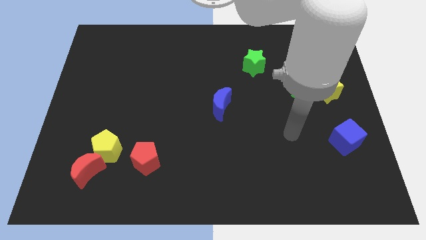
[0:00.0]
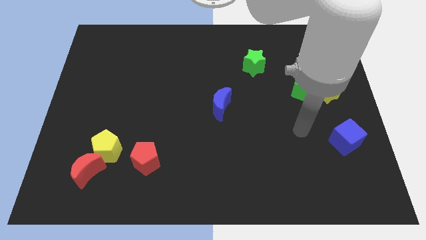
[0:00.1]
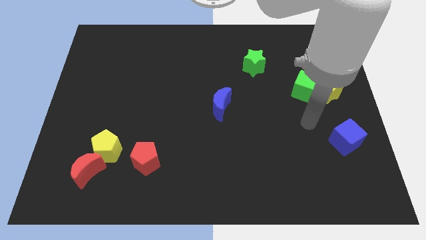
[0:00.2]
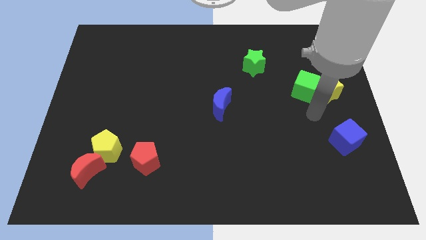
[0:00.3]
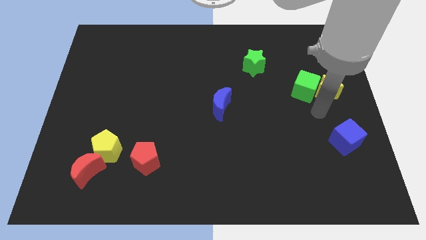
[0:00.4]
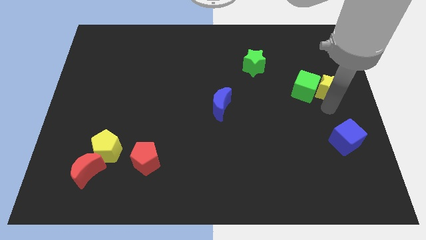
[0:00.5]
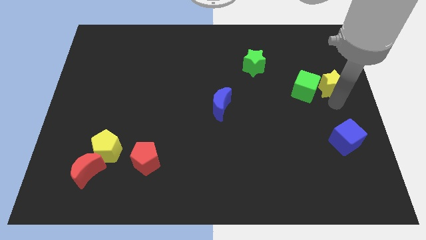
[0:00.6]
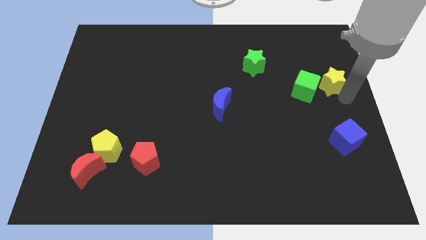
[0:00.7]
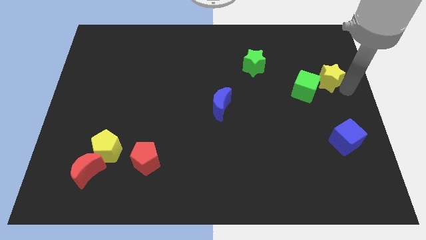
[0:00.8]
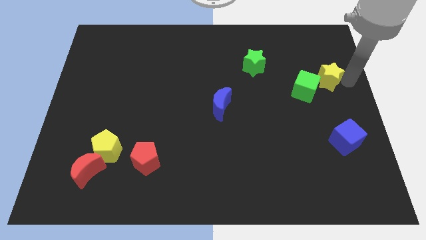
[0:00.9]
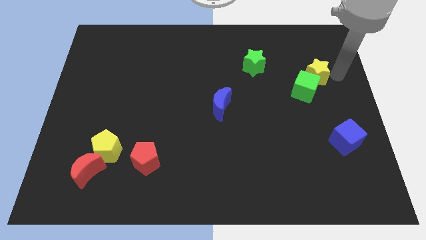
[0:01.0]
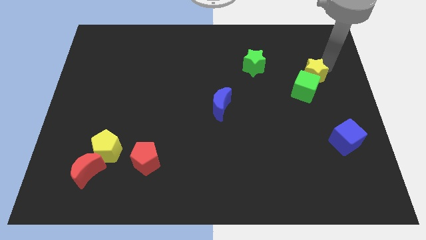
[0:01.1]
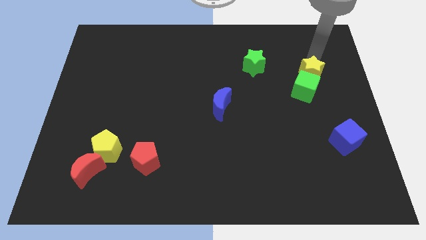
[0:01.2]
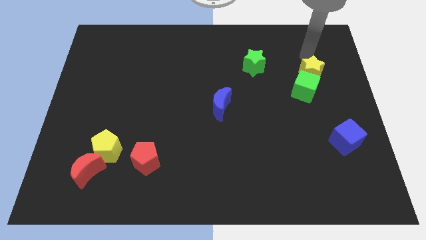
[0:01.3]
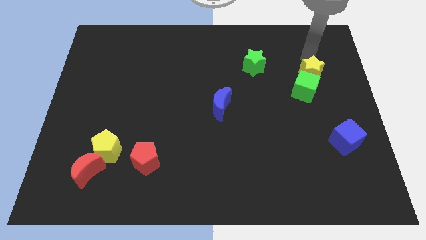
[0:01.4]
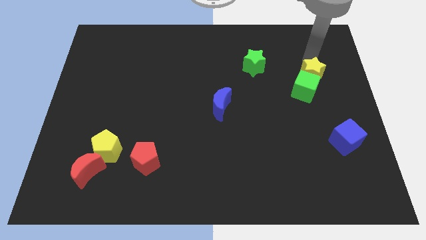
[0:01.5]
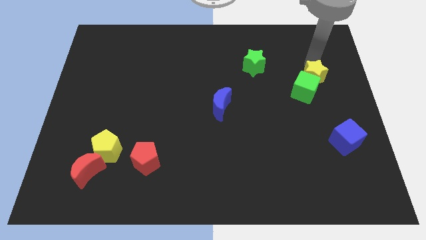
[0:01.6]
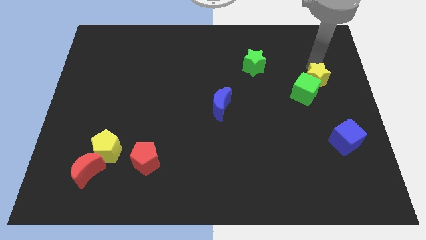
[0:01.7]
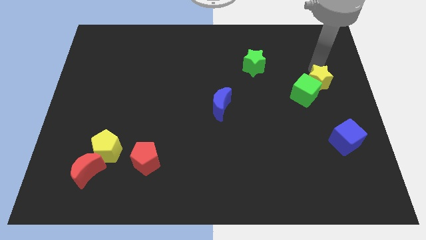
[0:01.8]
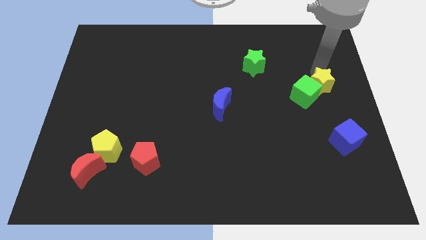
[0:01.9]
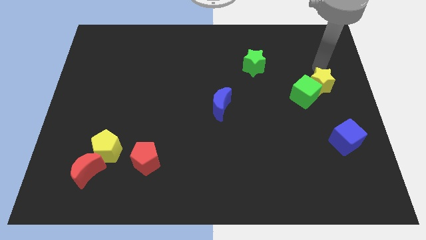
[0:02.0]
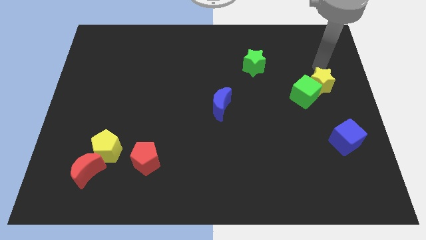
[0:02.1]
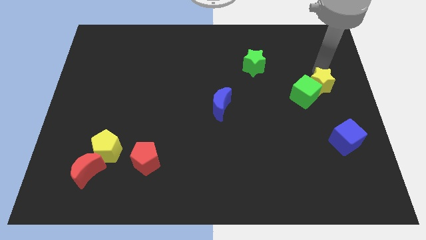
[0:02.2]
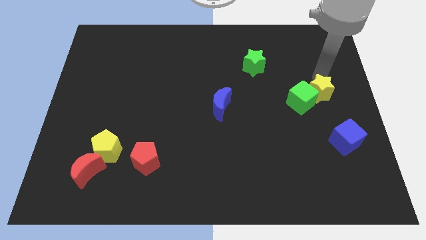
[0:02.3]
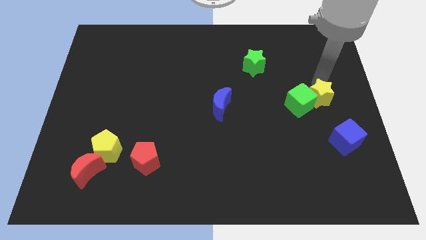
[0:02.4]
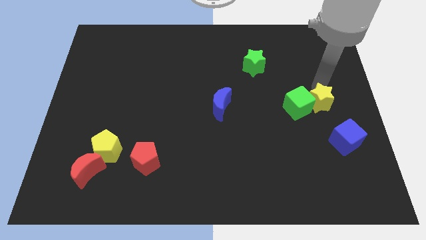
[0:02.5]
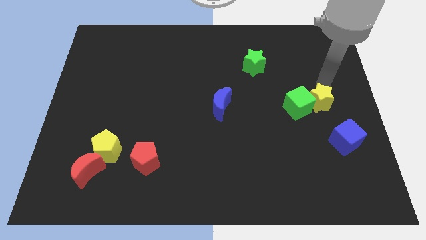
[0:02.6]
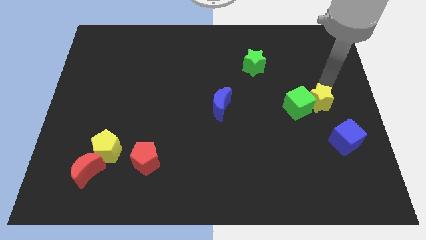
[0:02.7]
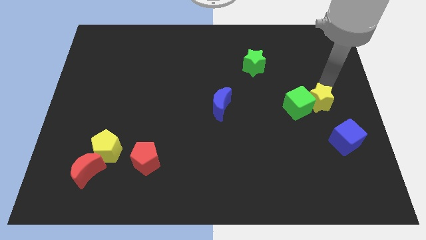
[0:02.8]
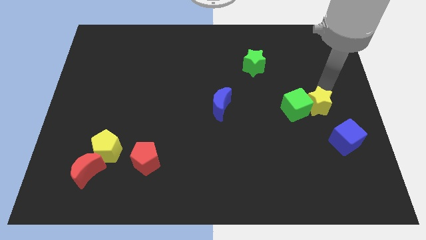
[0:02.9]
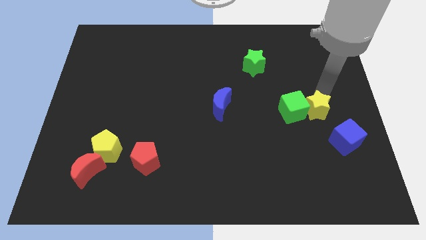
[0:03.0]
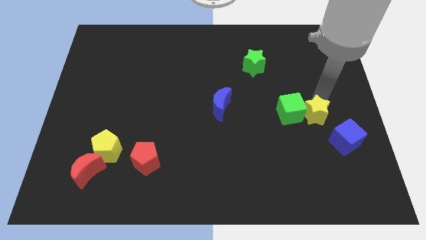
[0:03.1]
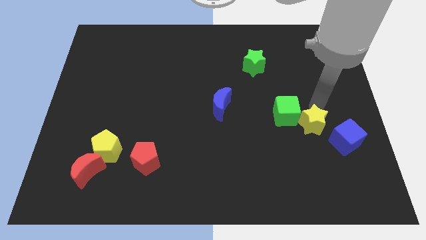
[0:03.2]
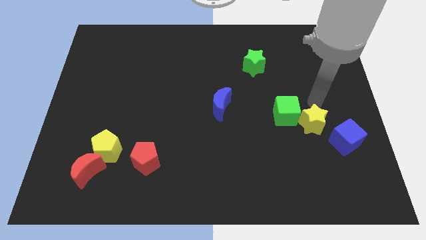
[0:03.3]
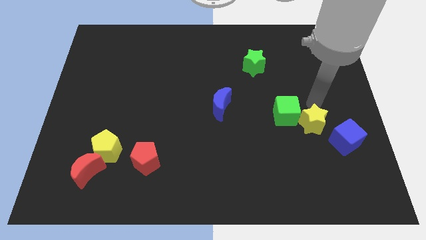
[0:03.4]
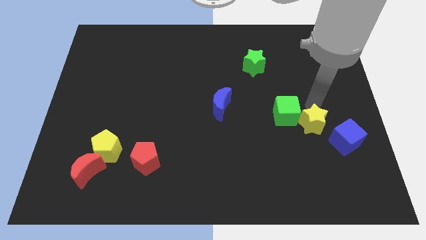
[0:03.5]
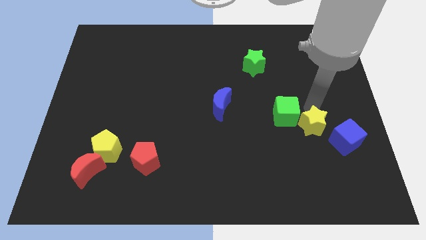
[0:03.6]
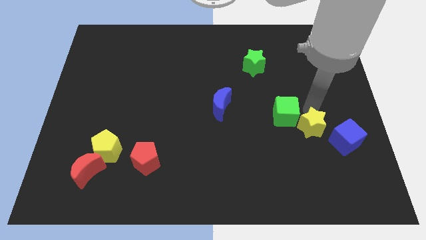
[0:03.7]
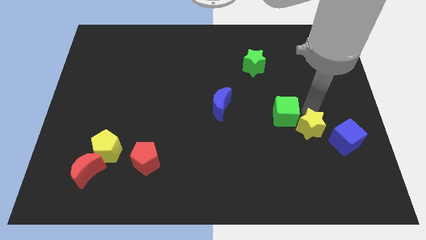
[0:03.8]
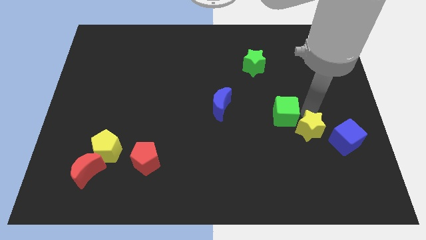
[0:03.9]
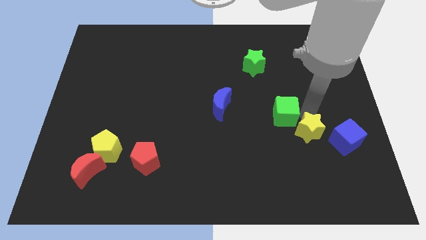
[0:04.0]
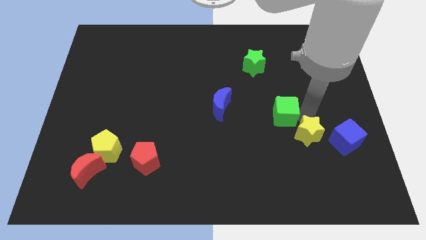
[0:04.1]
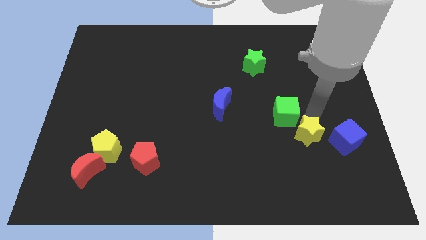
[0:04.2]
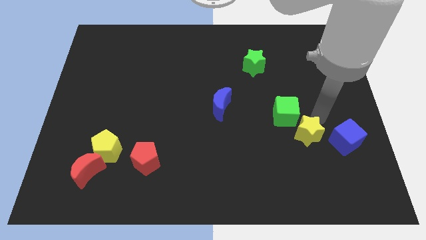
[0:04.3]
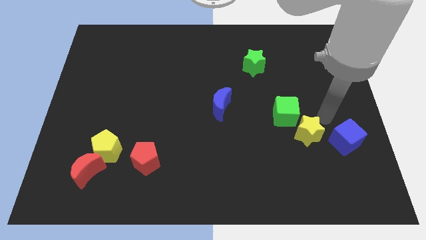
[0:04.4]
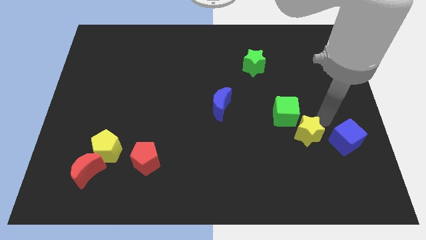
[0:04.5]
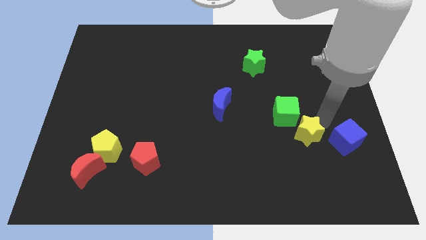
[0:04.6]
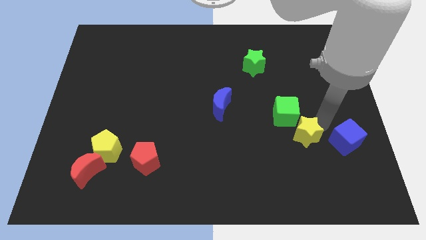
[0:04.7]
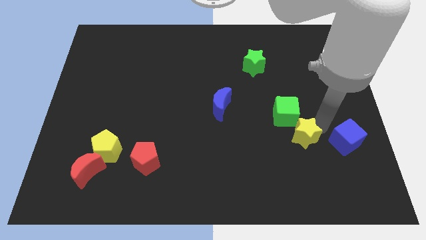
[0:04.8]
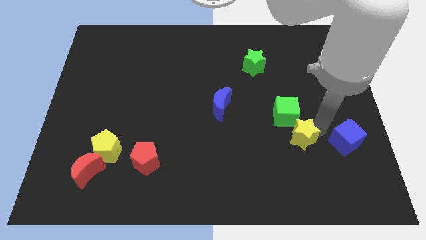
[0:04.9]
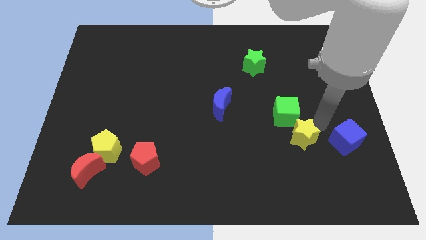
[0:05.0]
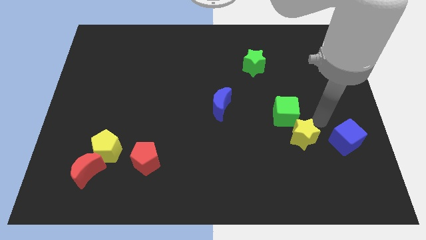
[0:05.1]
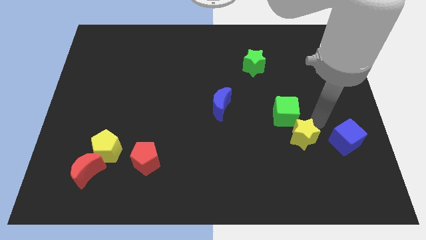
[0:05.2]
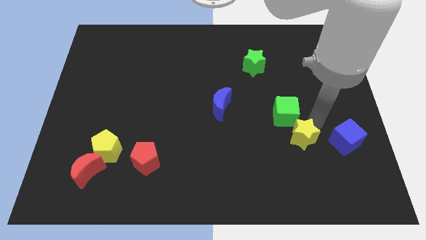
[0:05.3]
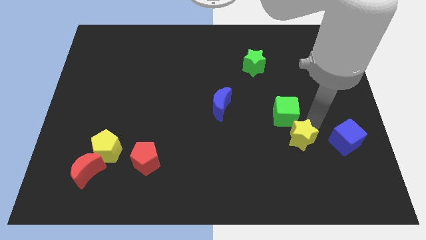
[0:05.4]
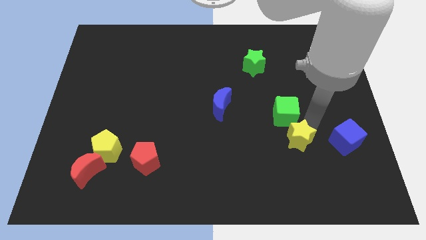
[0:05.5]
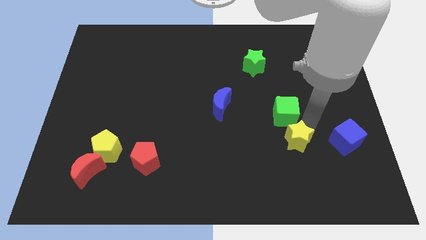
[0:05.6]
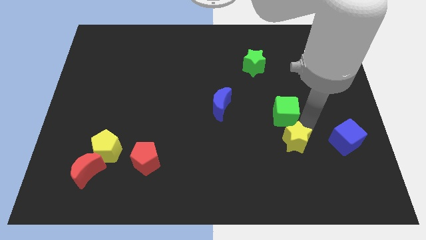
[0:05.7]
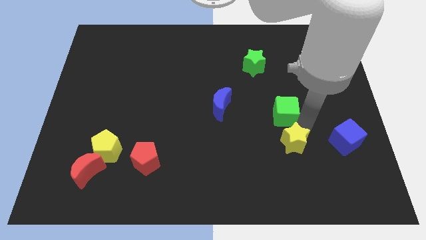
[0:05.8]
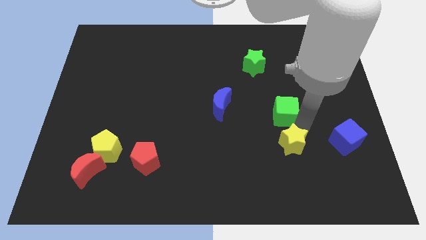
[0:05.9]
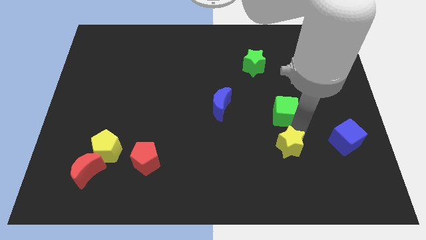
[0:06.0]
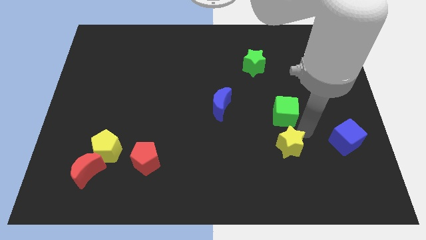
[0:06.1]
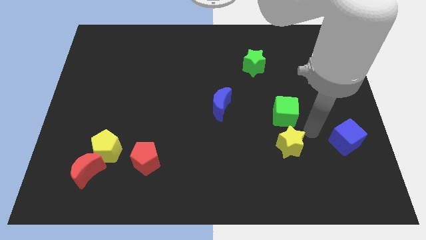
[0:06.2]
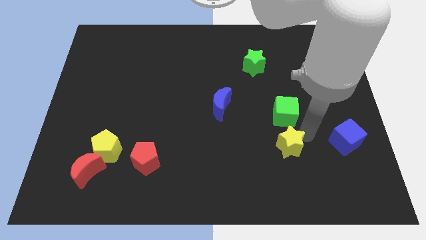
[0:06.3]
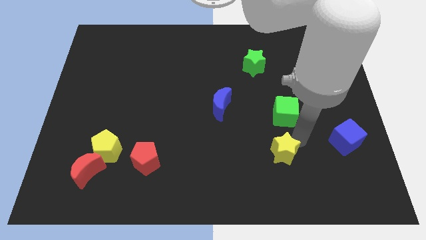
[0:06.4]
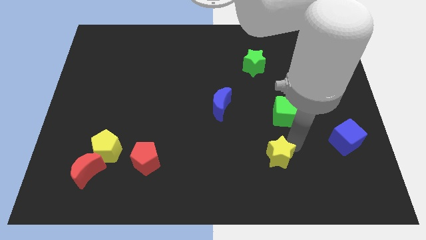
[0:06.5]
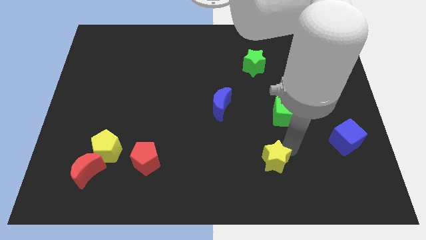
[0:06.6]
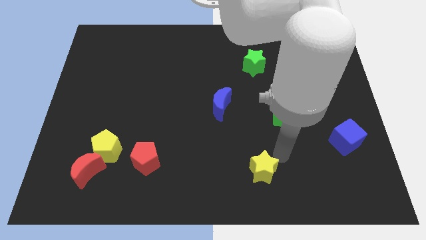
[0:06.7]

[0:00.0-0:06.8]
put the yellow star to the bottom
